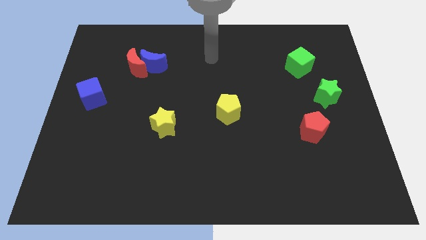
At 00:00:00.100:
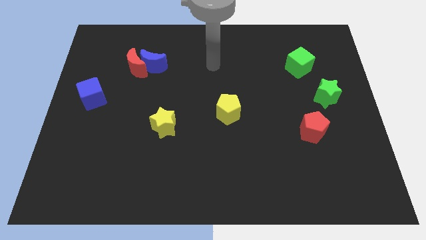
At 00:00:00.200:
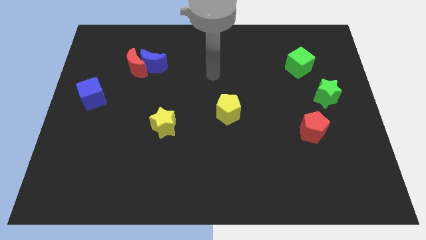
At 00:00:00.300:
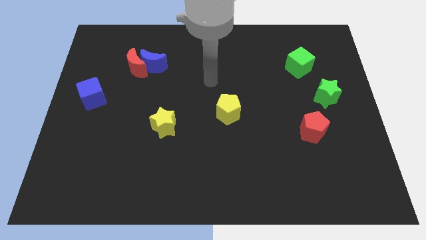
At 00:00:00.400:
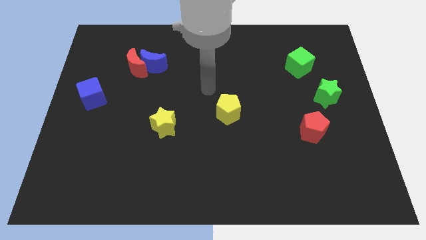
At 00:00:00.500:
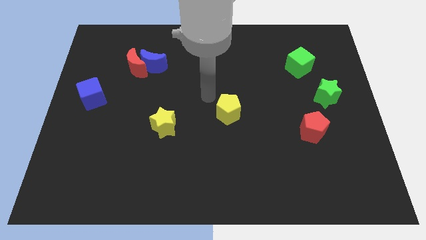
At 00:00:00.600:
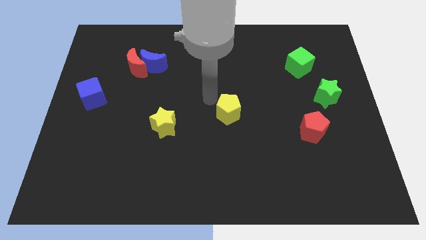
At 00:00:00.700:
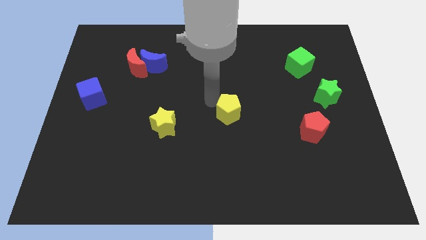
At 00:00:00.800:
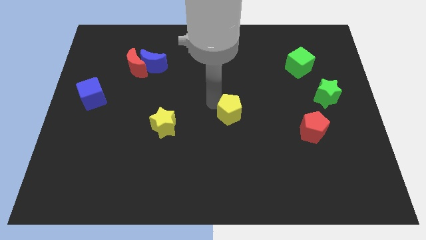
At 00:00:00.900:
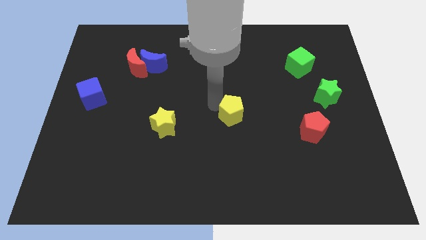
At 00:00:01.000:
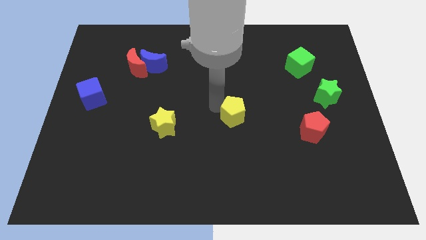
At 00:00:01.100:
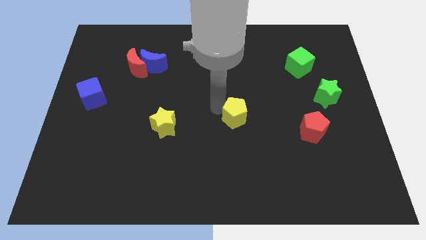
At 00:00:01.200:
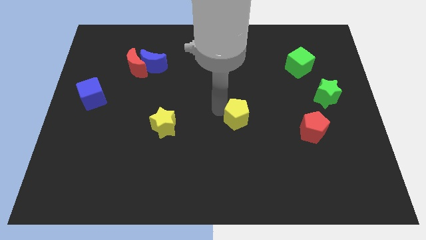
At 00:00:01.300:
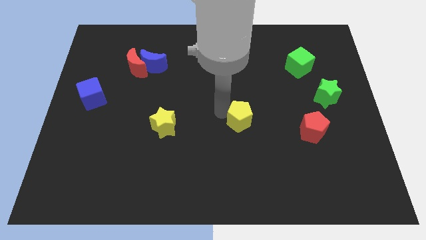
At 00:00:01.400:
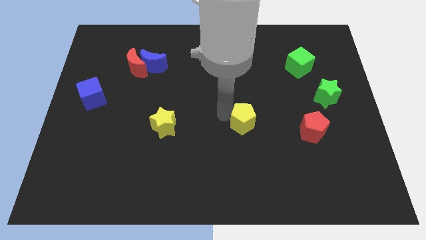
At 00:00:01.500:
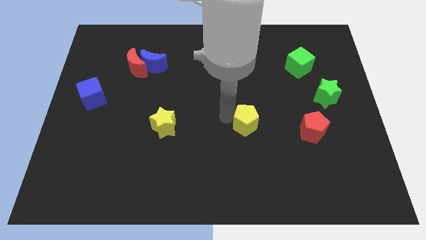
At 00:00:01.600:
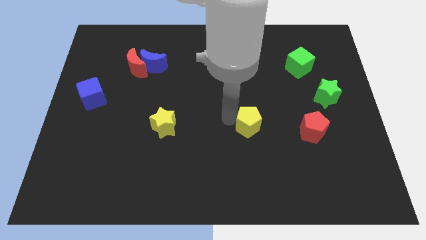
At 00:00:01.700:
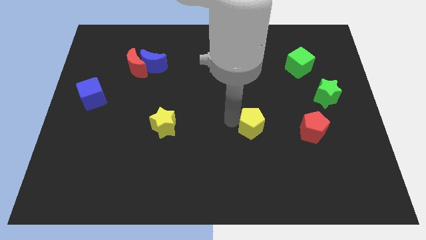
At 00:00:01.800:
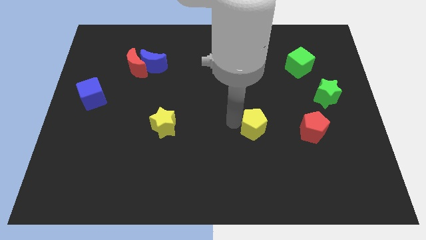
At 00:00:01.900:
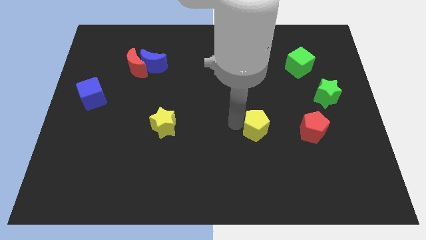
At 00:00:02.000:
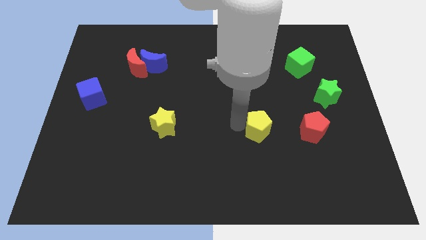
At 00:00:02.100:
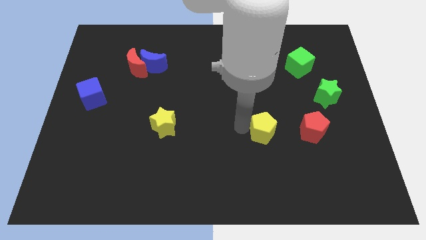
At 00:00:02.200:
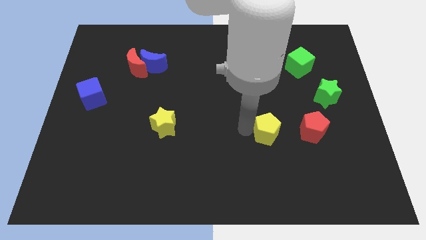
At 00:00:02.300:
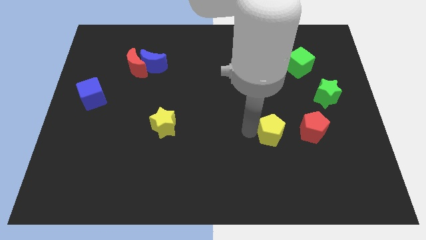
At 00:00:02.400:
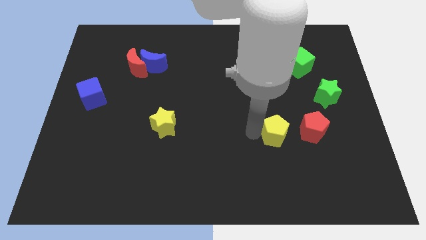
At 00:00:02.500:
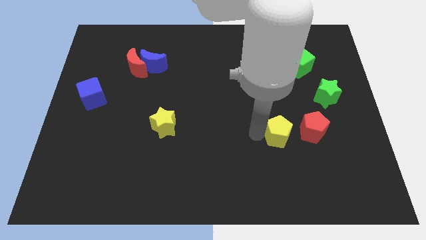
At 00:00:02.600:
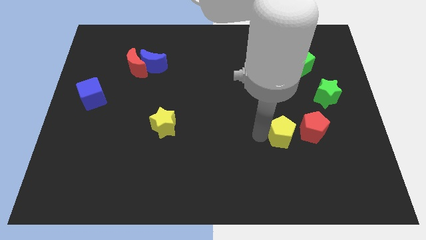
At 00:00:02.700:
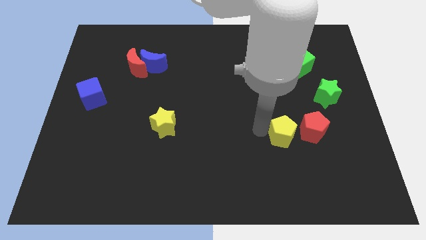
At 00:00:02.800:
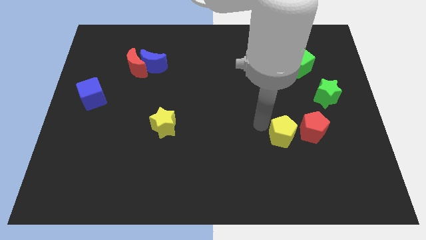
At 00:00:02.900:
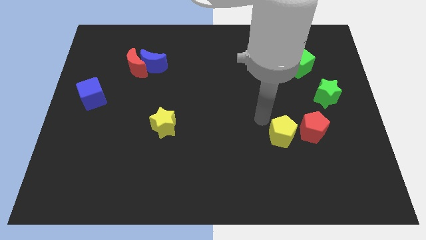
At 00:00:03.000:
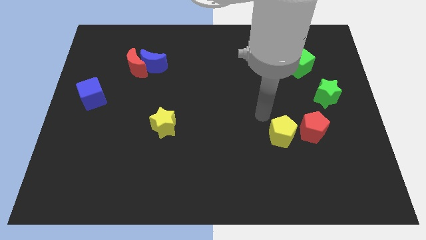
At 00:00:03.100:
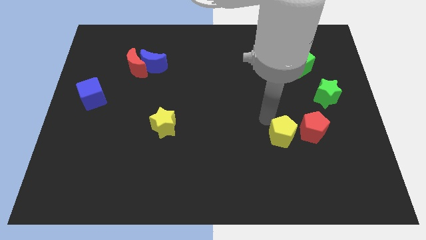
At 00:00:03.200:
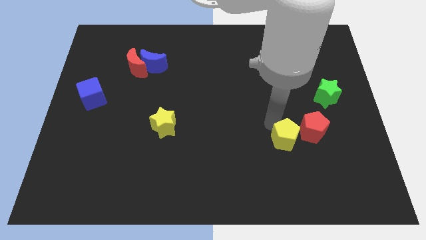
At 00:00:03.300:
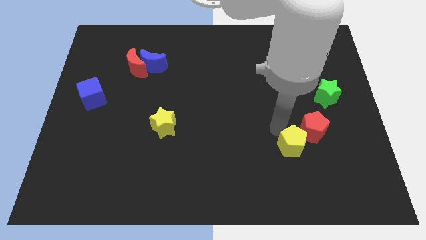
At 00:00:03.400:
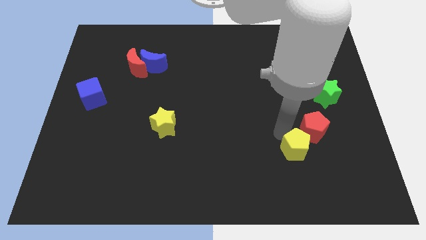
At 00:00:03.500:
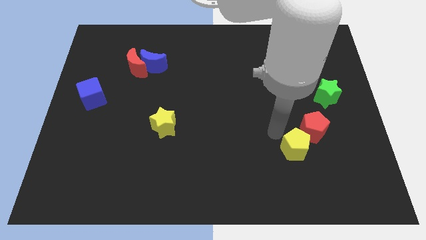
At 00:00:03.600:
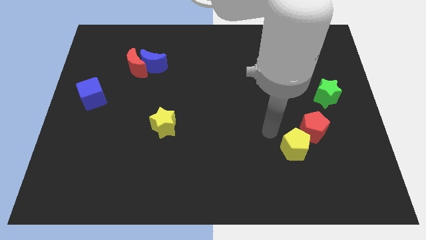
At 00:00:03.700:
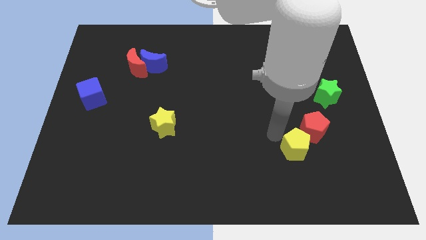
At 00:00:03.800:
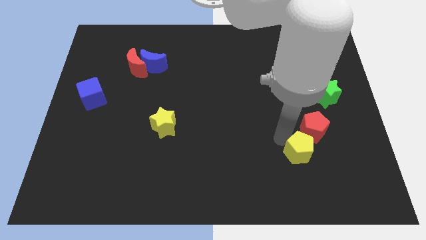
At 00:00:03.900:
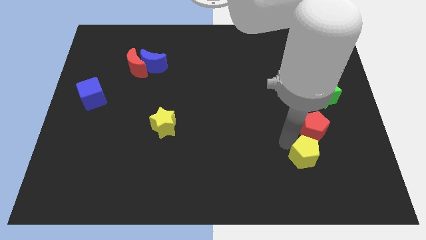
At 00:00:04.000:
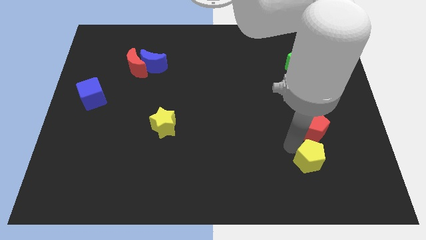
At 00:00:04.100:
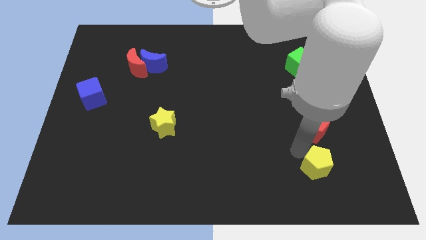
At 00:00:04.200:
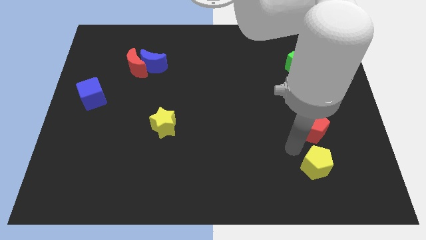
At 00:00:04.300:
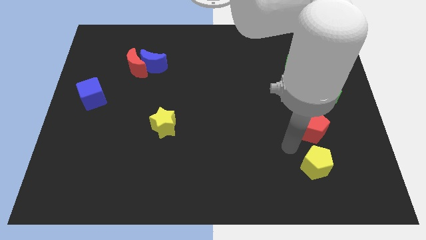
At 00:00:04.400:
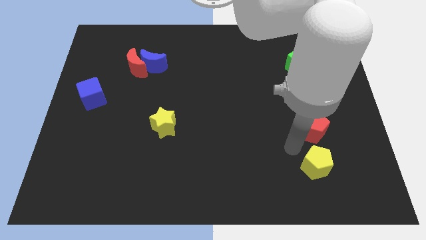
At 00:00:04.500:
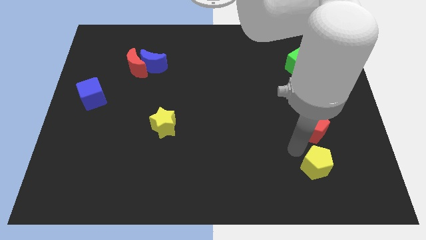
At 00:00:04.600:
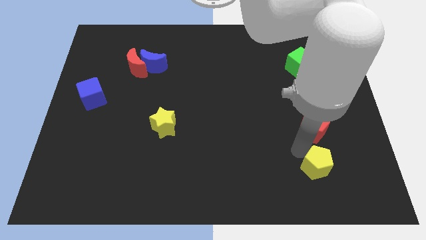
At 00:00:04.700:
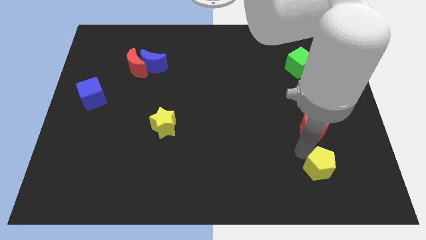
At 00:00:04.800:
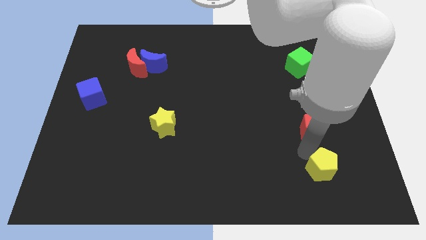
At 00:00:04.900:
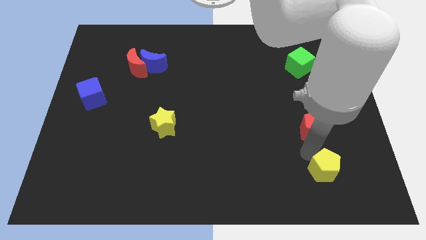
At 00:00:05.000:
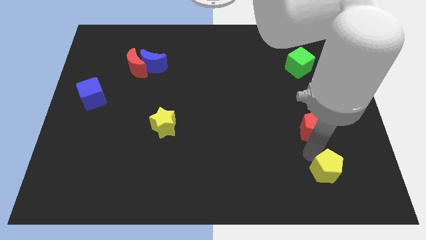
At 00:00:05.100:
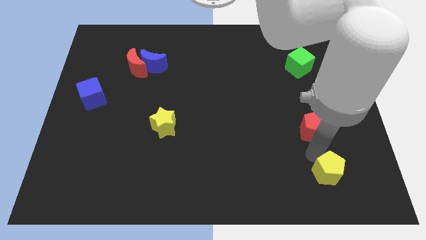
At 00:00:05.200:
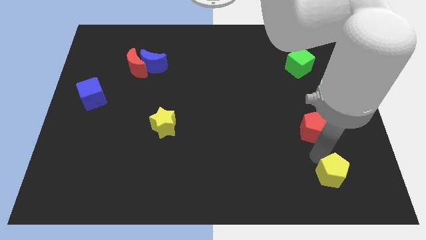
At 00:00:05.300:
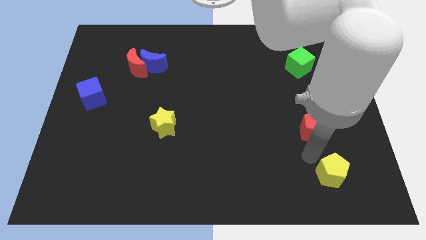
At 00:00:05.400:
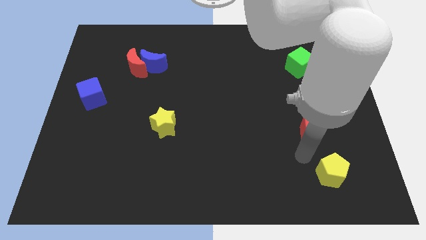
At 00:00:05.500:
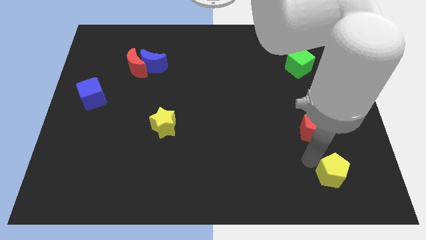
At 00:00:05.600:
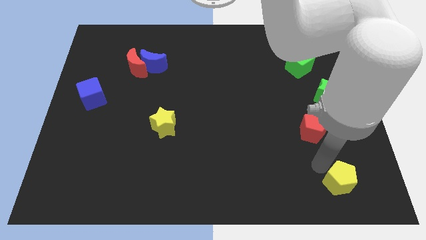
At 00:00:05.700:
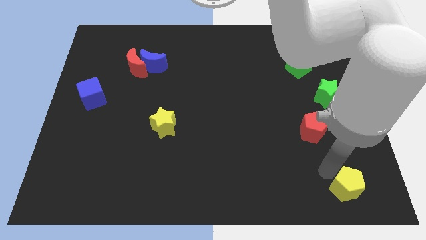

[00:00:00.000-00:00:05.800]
put the yellow pentagon to the lower right corner
